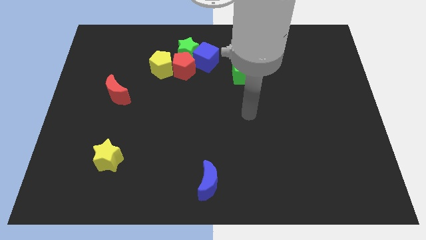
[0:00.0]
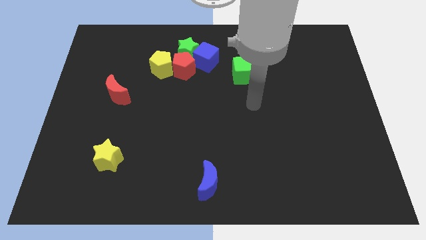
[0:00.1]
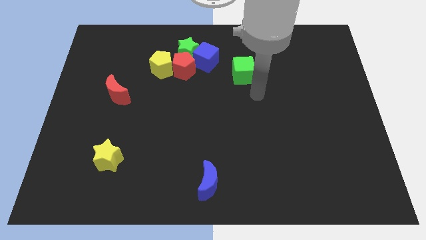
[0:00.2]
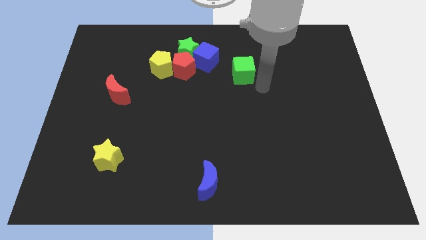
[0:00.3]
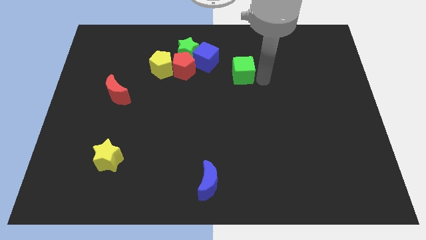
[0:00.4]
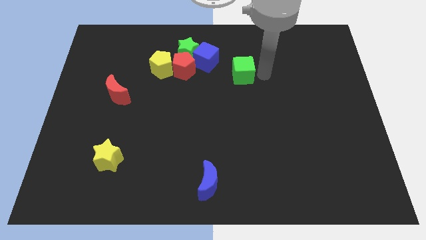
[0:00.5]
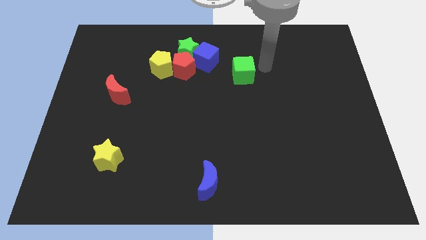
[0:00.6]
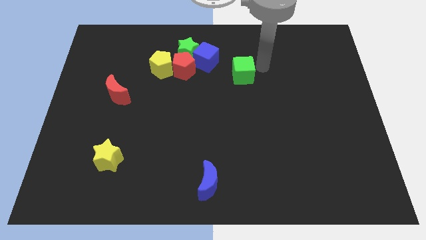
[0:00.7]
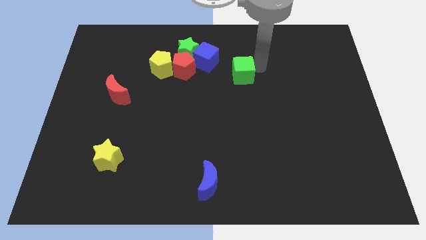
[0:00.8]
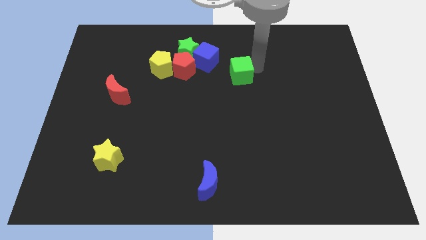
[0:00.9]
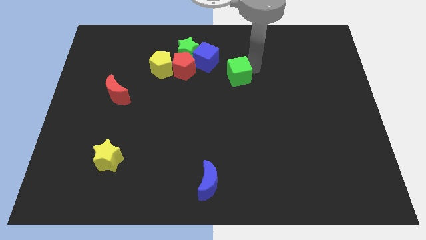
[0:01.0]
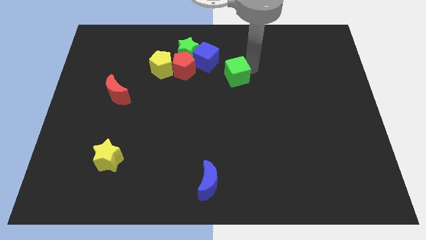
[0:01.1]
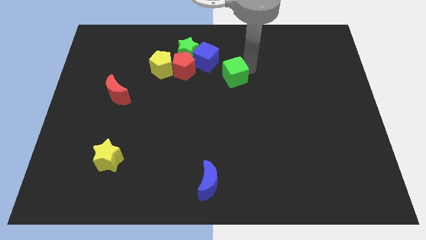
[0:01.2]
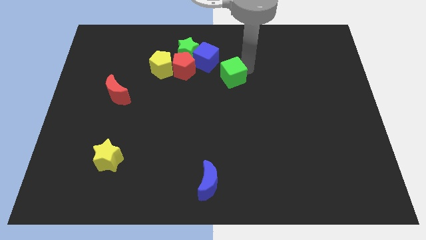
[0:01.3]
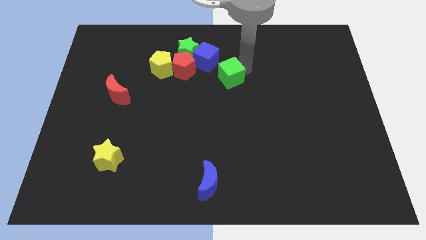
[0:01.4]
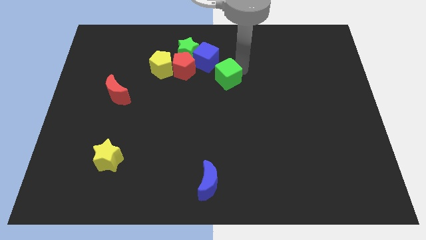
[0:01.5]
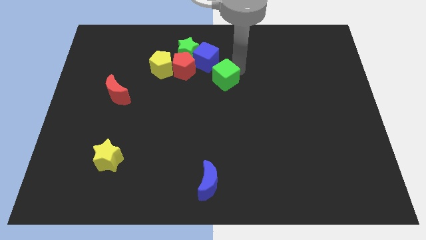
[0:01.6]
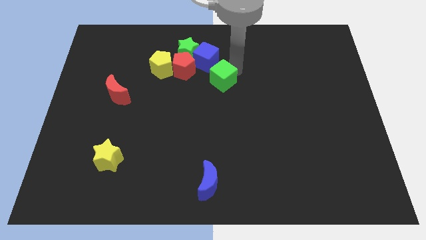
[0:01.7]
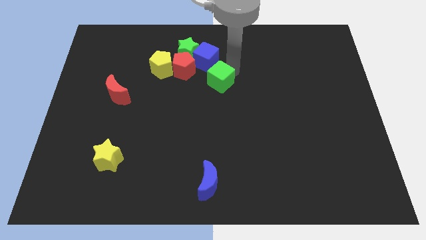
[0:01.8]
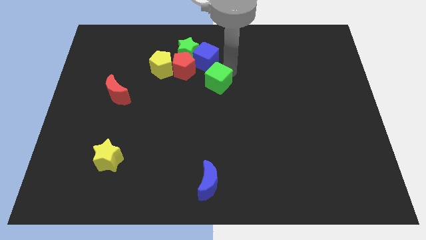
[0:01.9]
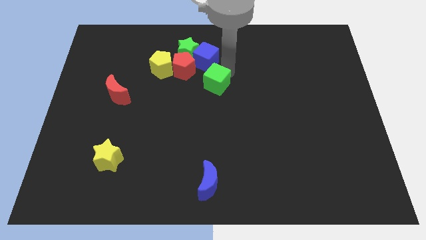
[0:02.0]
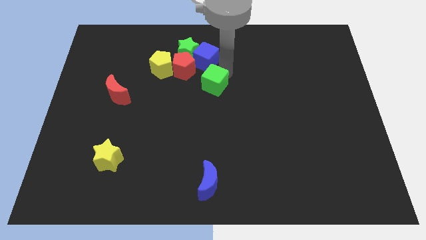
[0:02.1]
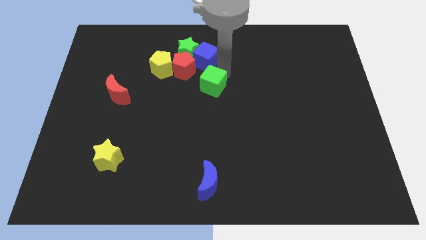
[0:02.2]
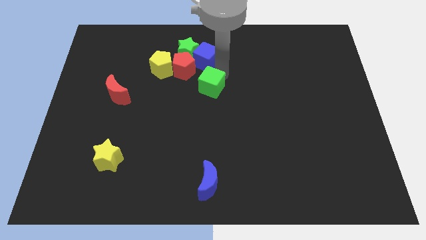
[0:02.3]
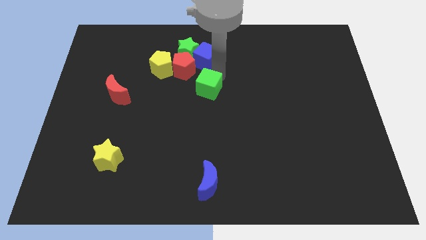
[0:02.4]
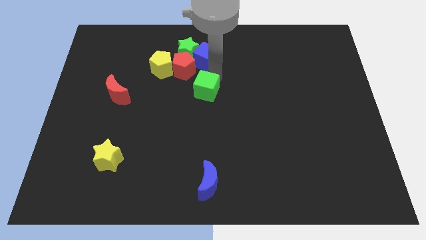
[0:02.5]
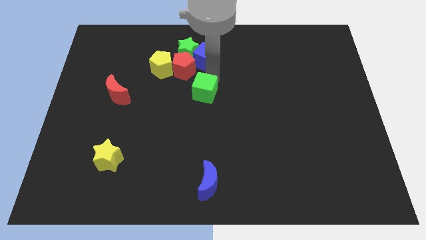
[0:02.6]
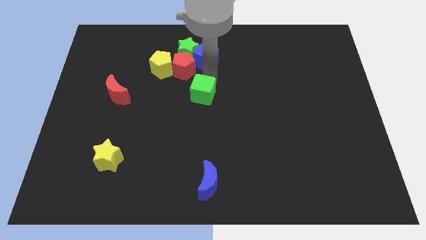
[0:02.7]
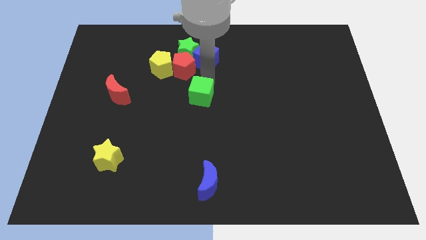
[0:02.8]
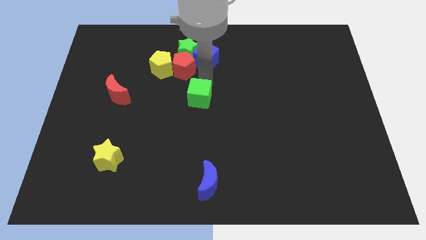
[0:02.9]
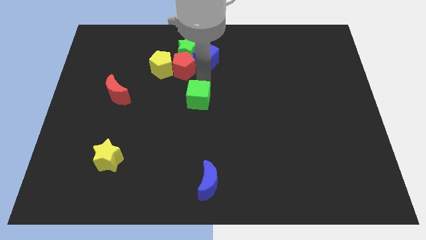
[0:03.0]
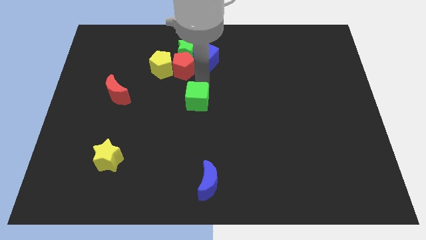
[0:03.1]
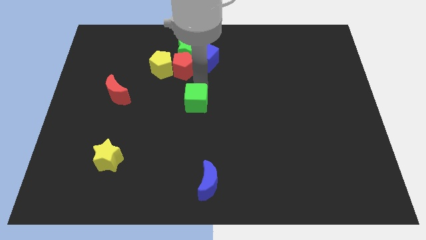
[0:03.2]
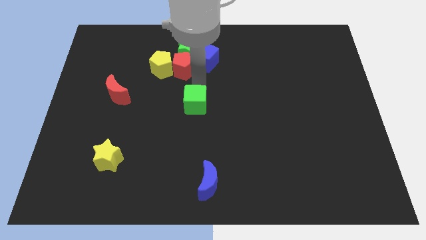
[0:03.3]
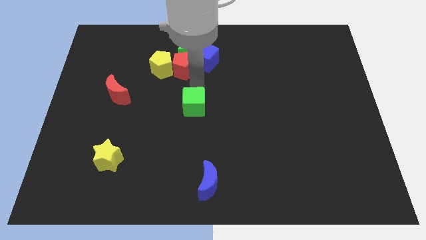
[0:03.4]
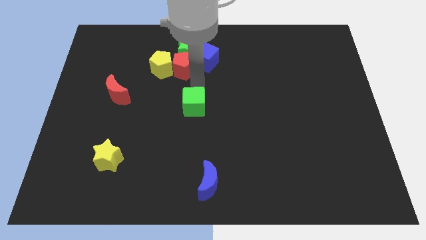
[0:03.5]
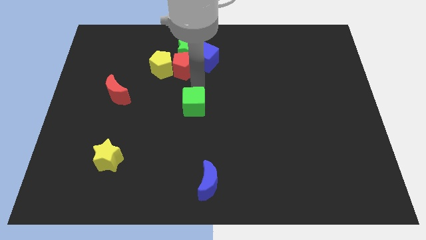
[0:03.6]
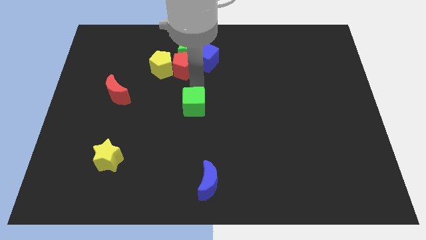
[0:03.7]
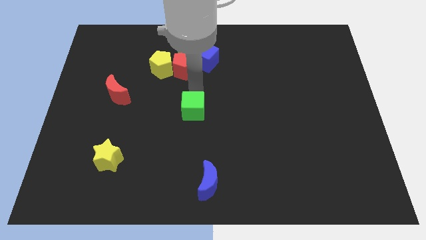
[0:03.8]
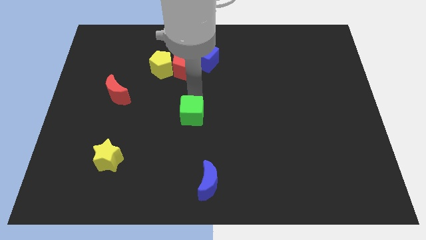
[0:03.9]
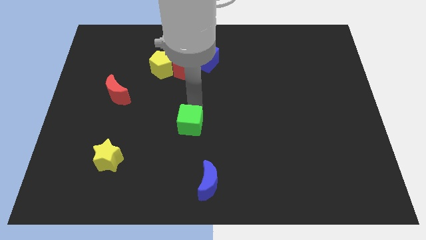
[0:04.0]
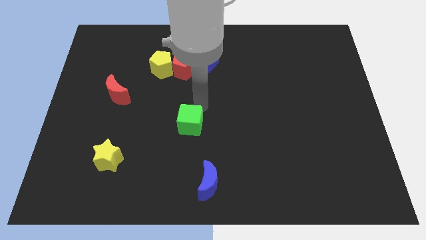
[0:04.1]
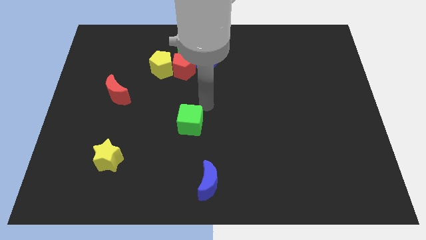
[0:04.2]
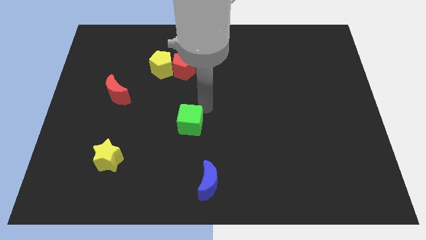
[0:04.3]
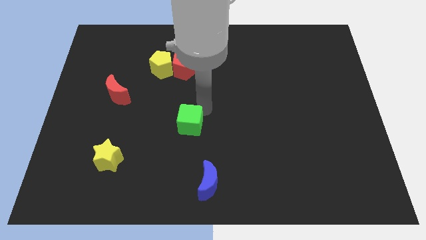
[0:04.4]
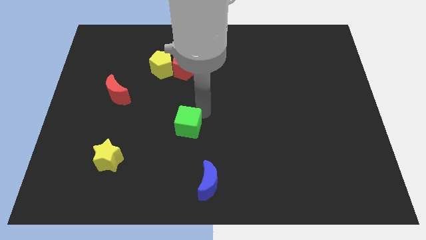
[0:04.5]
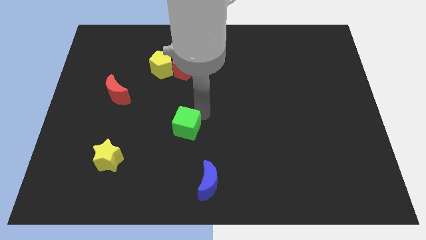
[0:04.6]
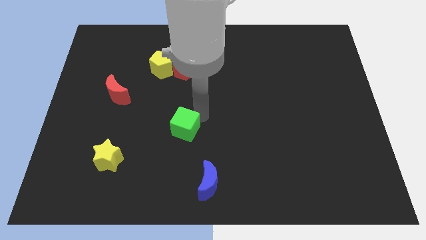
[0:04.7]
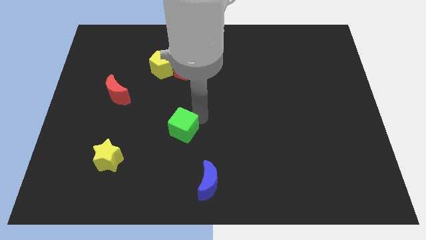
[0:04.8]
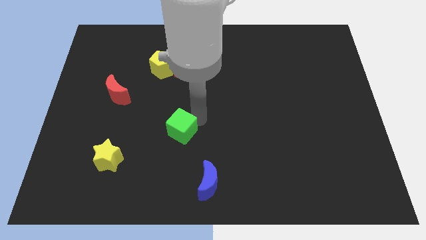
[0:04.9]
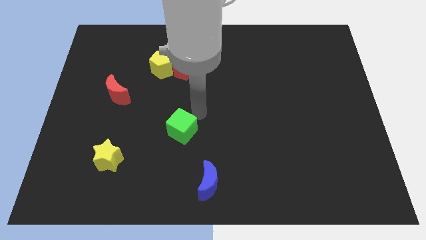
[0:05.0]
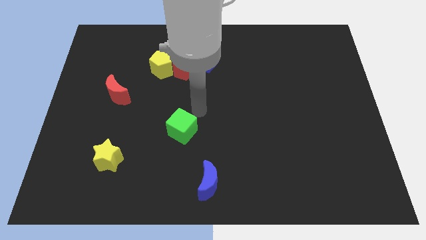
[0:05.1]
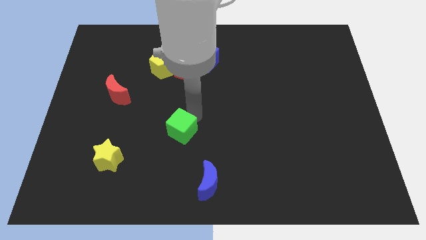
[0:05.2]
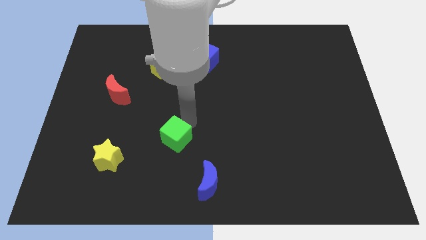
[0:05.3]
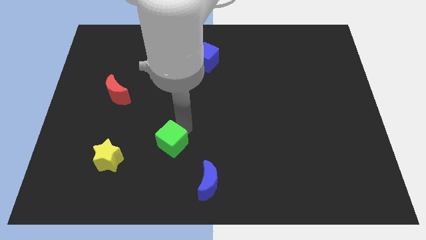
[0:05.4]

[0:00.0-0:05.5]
push the green cube to the right side of the yellow star

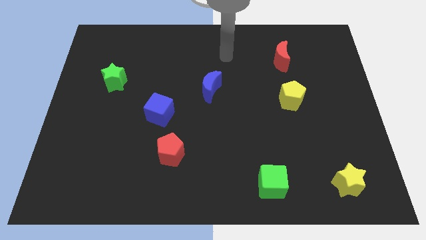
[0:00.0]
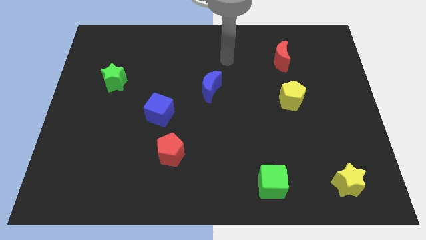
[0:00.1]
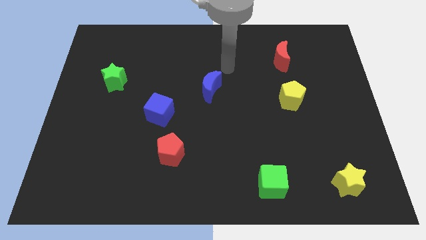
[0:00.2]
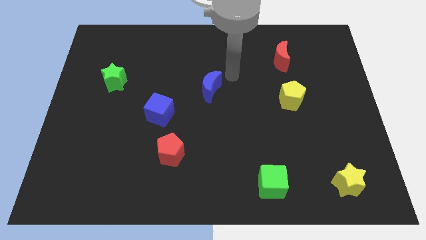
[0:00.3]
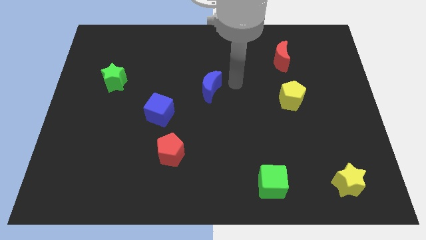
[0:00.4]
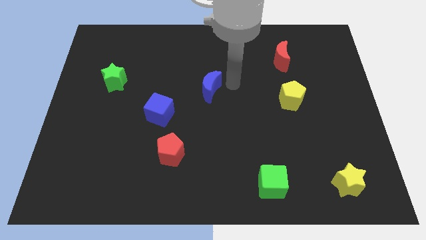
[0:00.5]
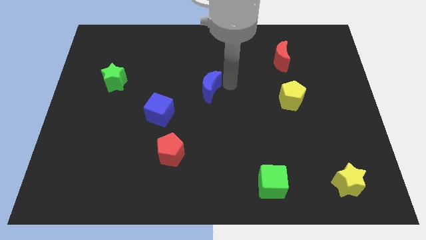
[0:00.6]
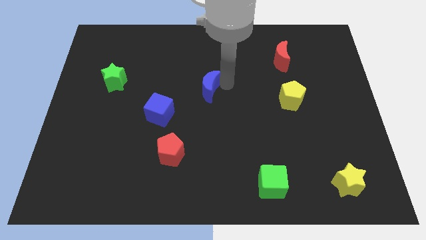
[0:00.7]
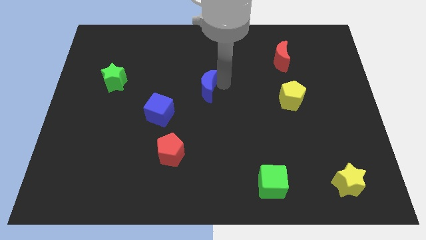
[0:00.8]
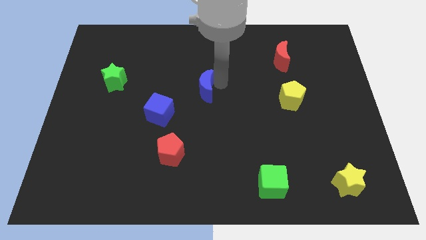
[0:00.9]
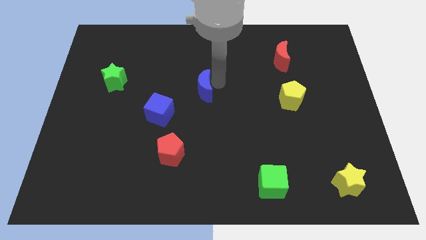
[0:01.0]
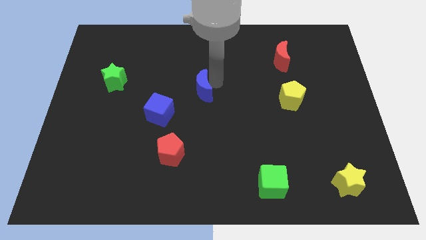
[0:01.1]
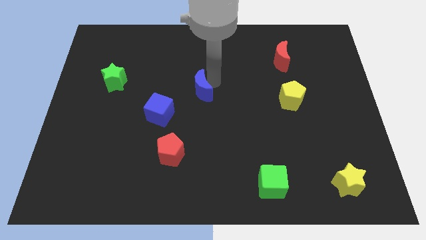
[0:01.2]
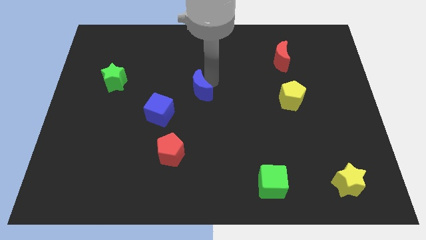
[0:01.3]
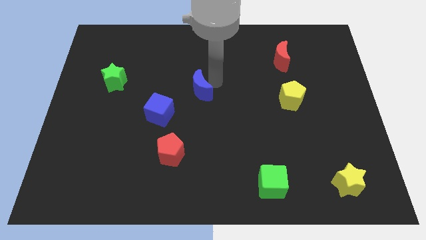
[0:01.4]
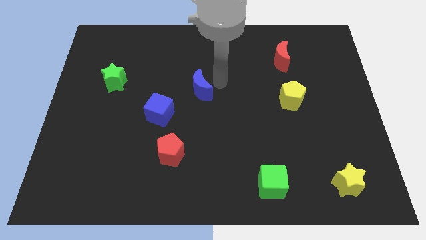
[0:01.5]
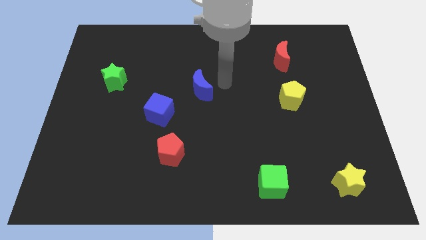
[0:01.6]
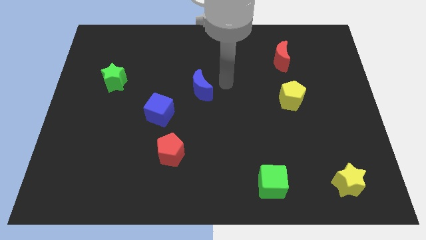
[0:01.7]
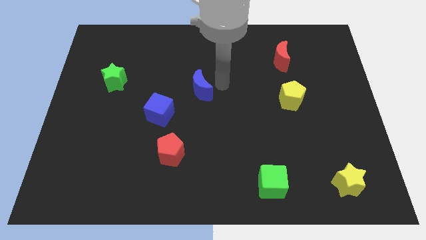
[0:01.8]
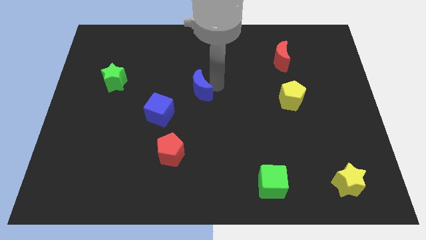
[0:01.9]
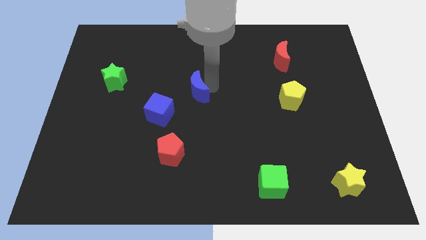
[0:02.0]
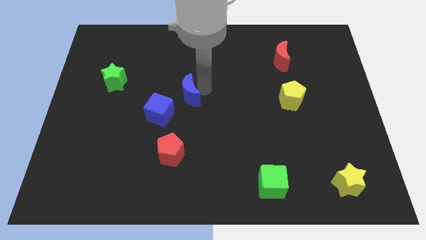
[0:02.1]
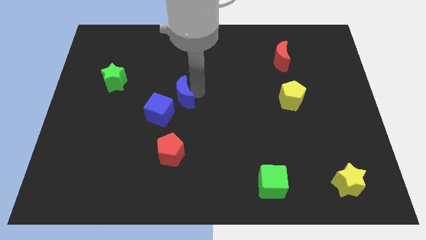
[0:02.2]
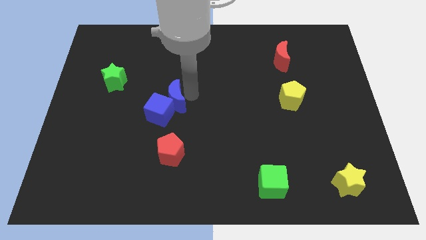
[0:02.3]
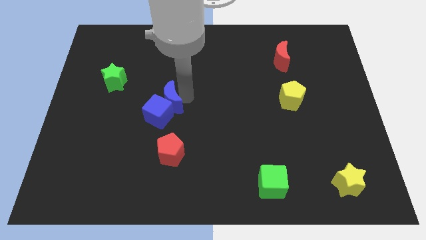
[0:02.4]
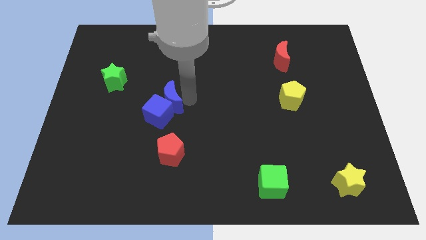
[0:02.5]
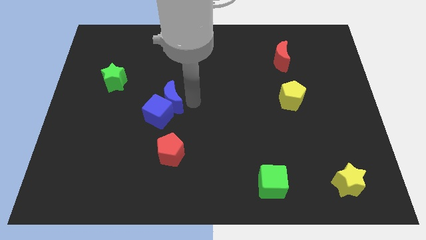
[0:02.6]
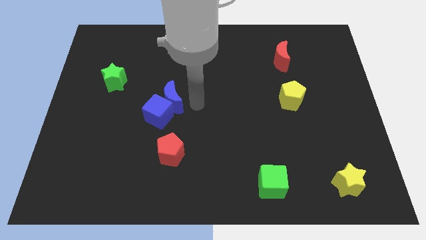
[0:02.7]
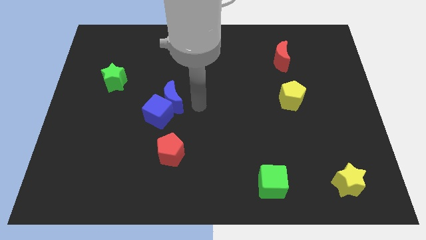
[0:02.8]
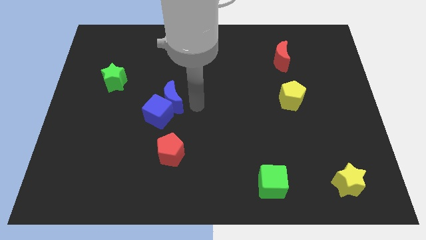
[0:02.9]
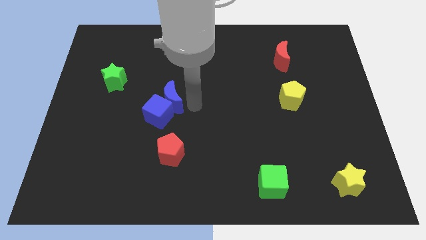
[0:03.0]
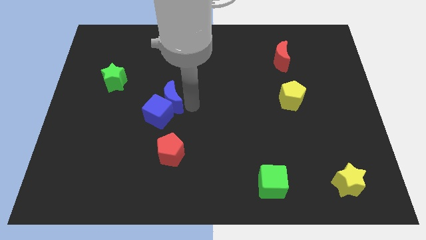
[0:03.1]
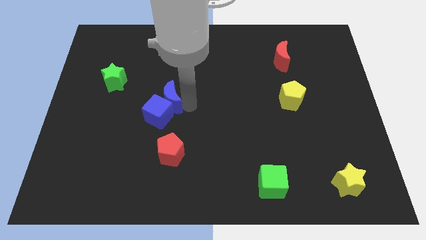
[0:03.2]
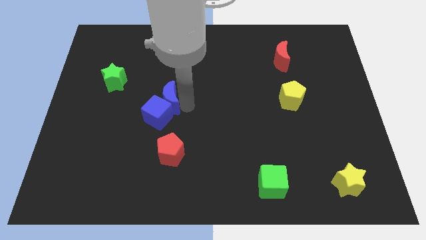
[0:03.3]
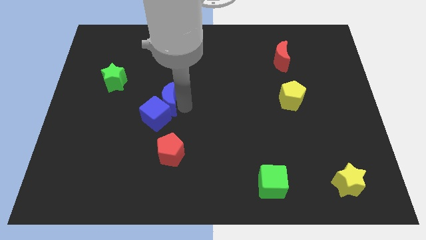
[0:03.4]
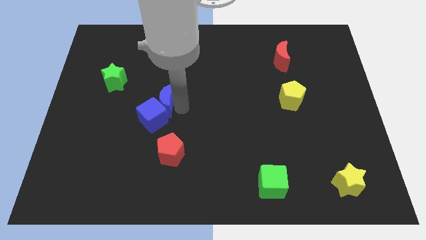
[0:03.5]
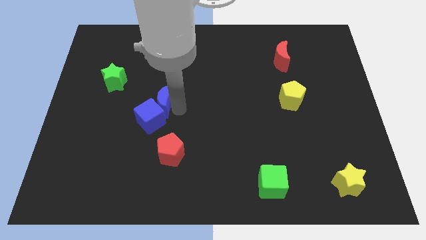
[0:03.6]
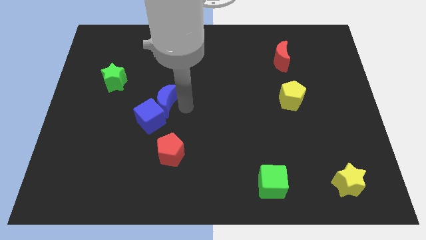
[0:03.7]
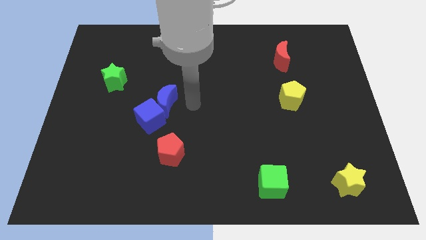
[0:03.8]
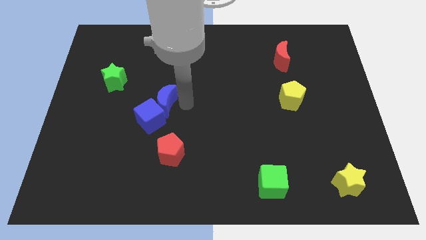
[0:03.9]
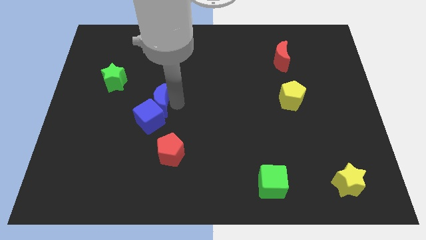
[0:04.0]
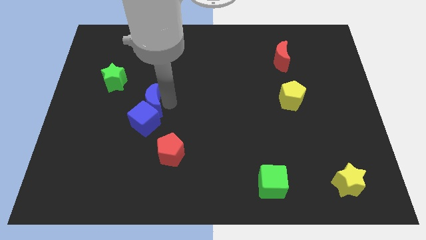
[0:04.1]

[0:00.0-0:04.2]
move the blue moon to the top left side of the blue cube
